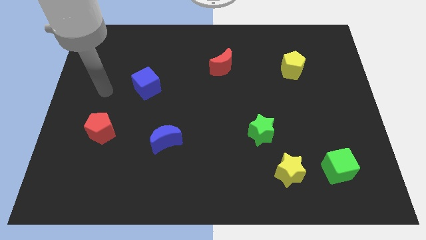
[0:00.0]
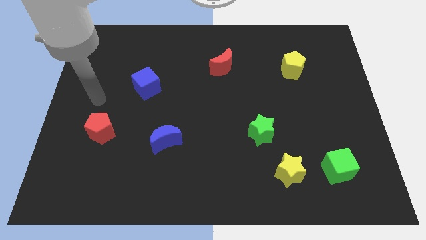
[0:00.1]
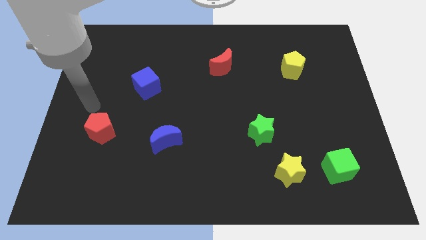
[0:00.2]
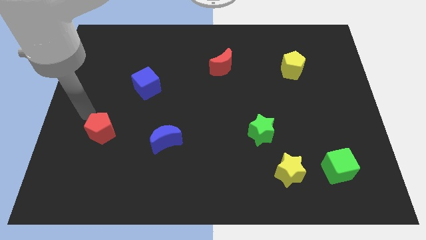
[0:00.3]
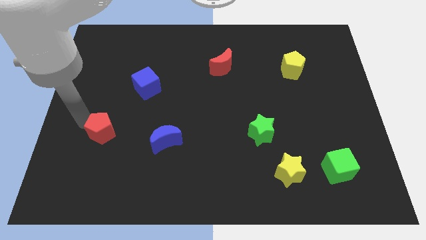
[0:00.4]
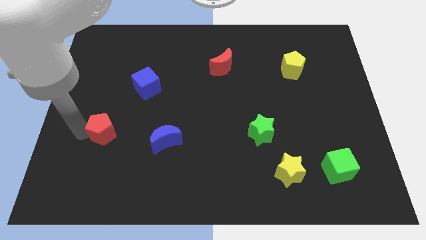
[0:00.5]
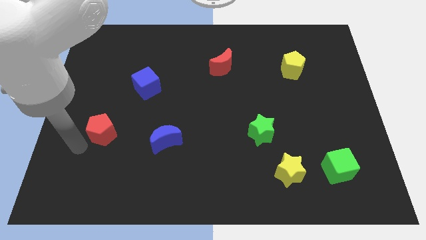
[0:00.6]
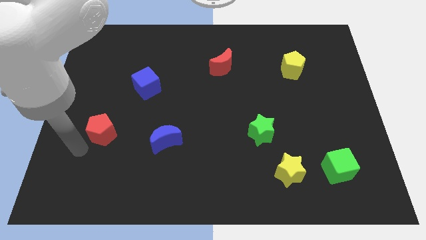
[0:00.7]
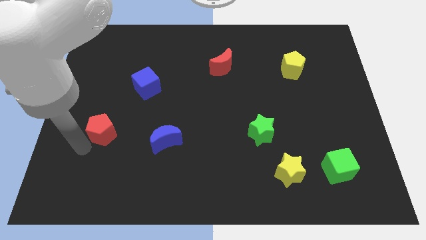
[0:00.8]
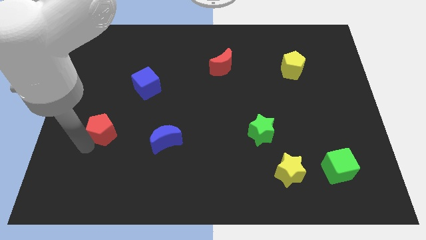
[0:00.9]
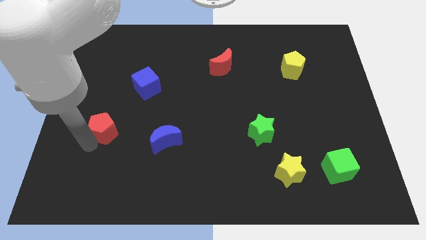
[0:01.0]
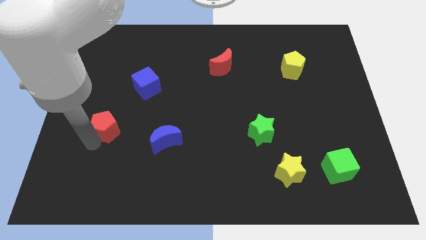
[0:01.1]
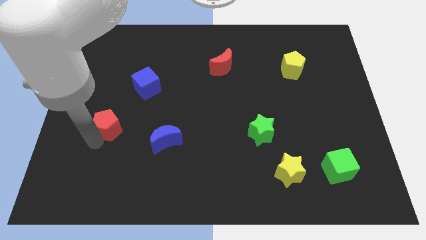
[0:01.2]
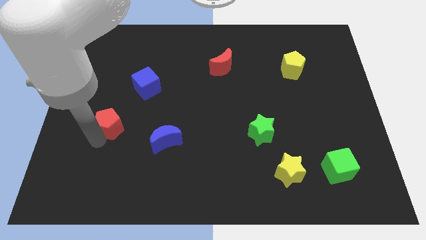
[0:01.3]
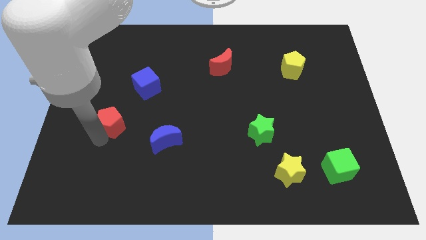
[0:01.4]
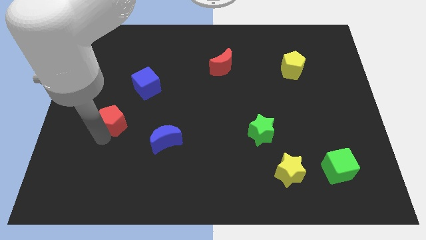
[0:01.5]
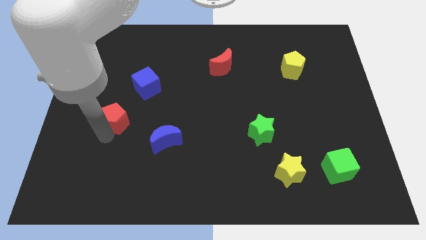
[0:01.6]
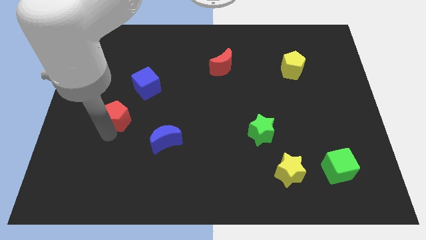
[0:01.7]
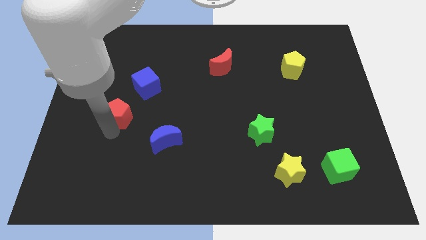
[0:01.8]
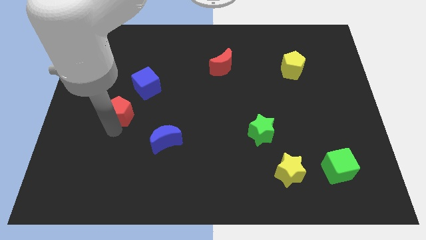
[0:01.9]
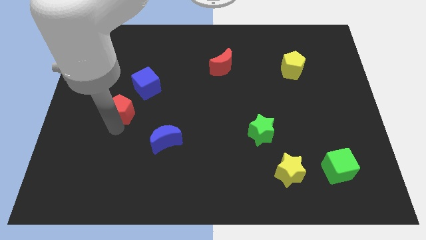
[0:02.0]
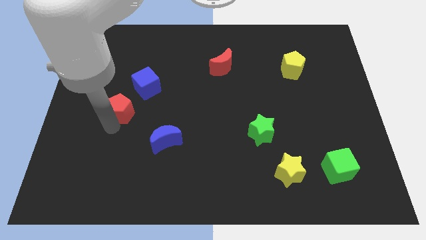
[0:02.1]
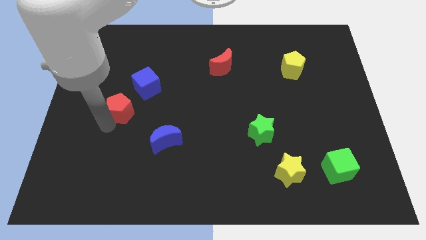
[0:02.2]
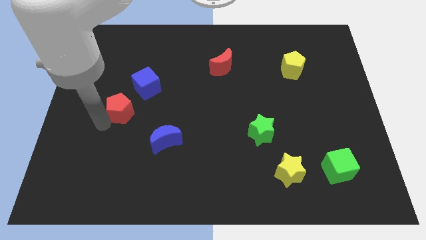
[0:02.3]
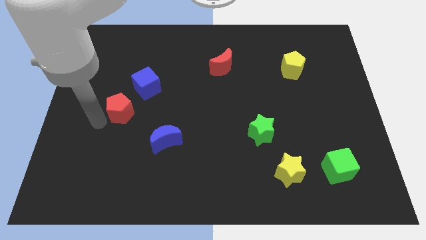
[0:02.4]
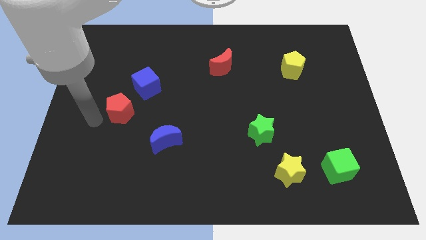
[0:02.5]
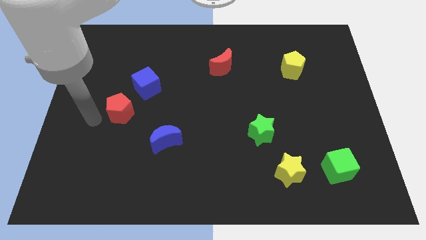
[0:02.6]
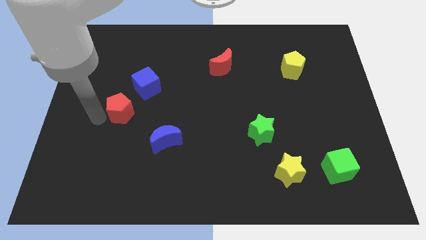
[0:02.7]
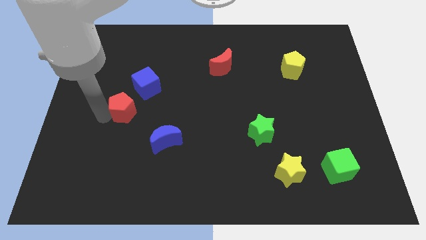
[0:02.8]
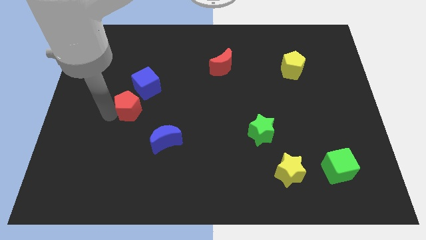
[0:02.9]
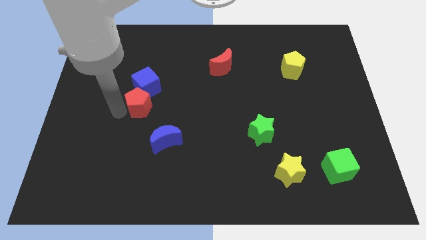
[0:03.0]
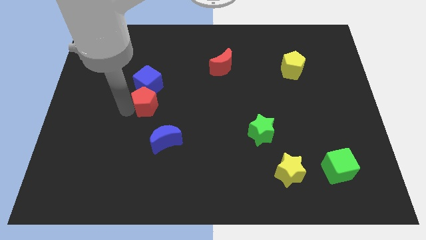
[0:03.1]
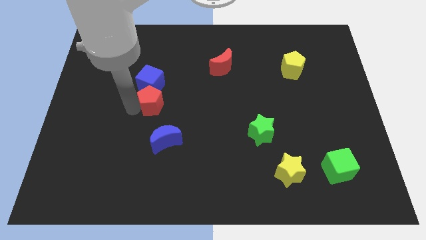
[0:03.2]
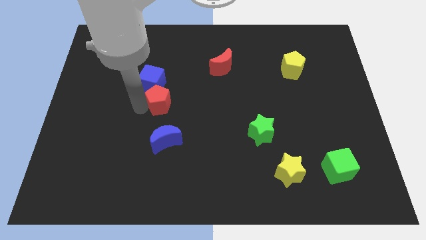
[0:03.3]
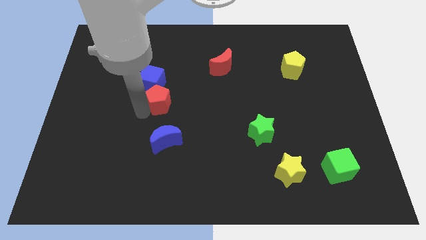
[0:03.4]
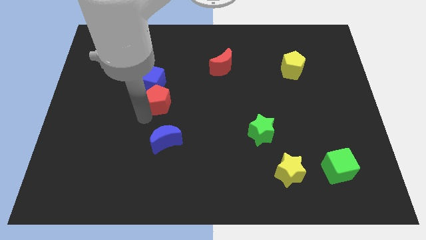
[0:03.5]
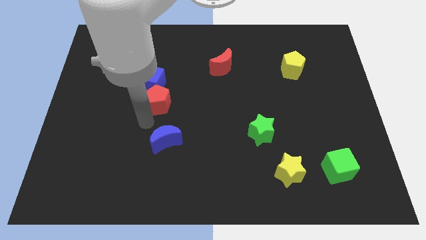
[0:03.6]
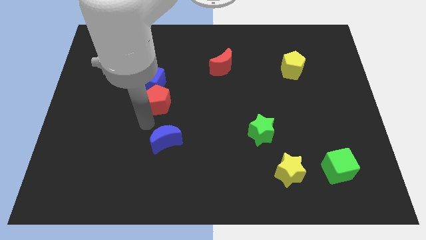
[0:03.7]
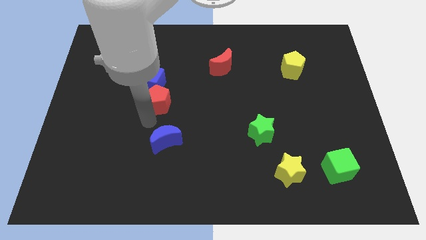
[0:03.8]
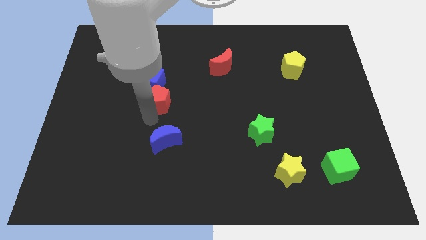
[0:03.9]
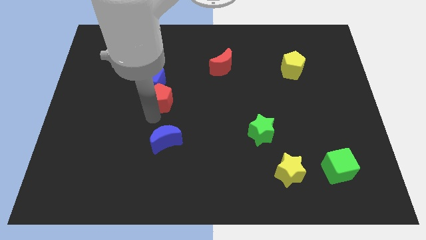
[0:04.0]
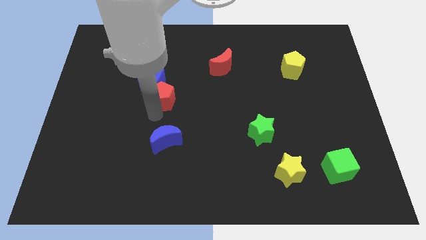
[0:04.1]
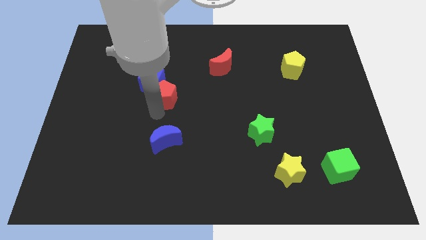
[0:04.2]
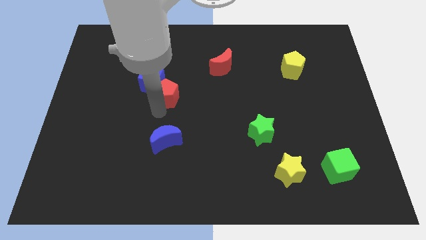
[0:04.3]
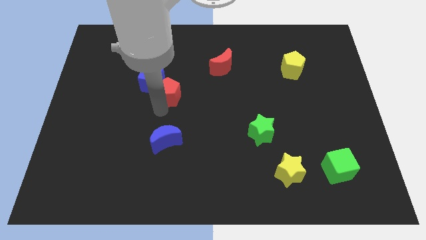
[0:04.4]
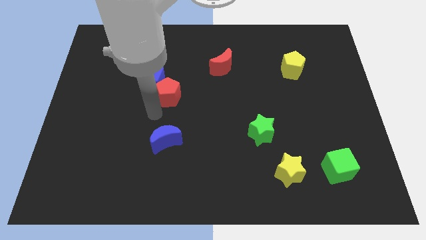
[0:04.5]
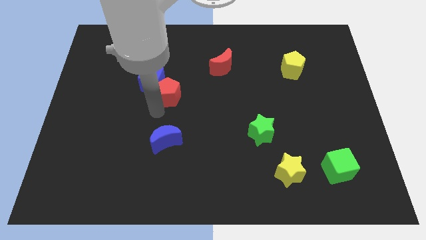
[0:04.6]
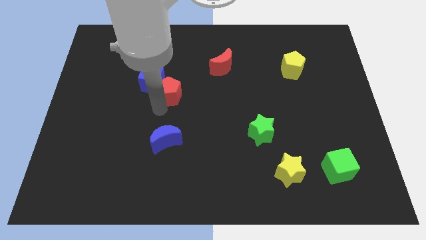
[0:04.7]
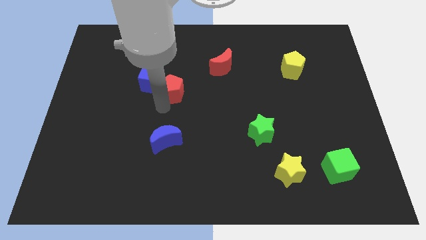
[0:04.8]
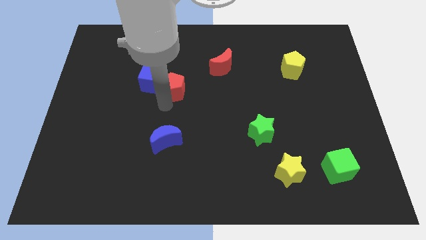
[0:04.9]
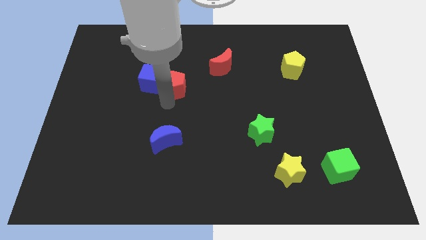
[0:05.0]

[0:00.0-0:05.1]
move the red pentagon upwards and then to the right

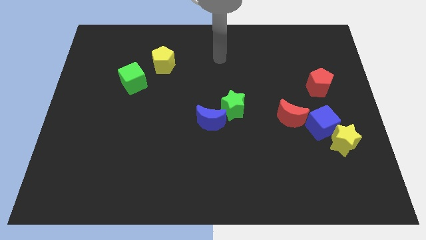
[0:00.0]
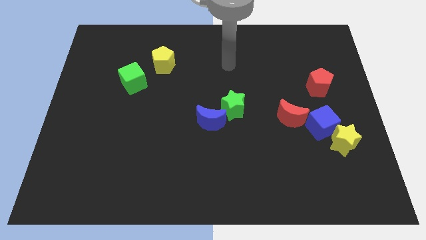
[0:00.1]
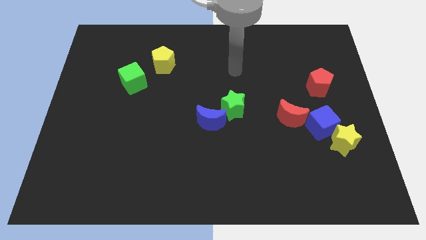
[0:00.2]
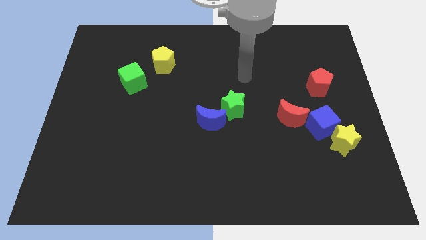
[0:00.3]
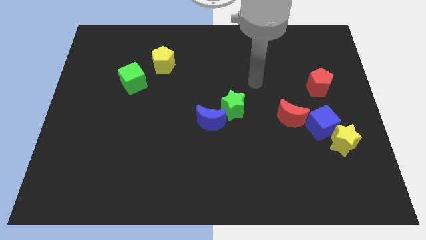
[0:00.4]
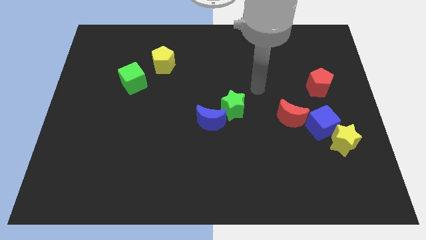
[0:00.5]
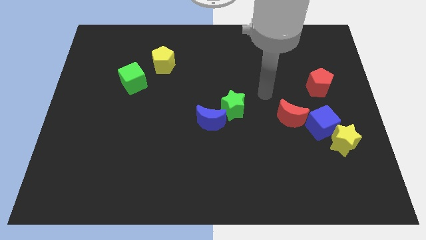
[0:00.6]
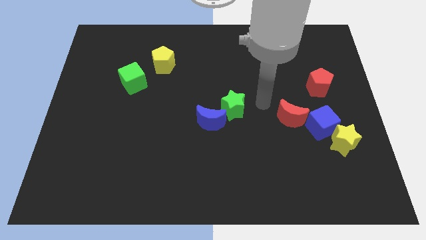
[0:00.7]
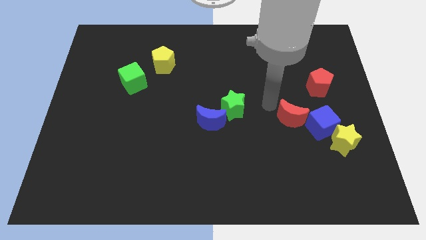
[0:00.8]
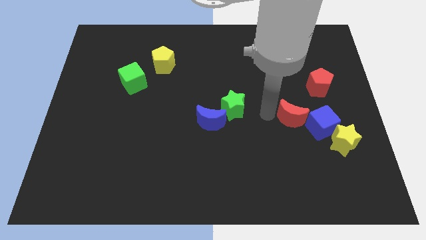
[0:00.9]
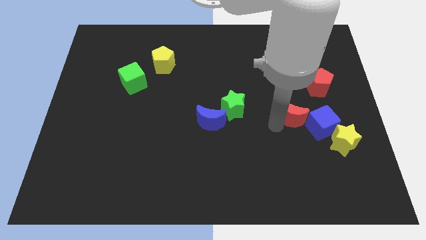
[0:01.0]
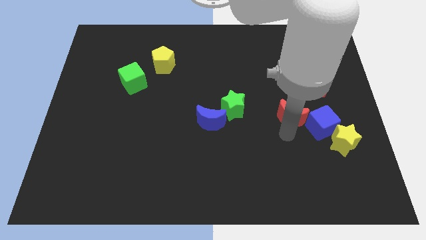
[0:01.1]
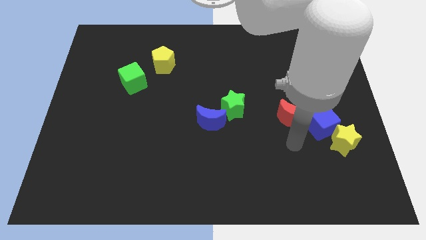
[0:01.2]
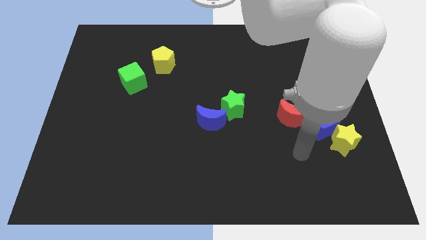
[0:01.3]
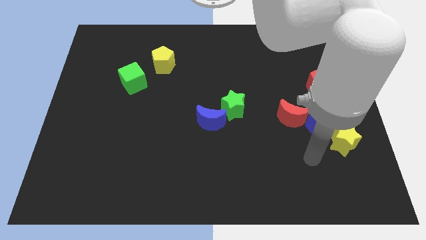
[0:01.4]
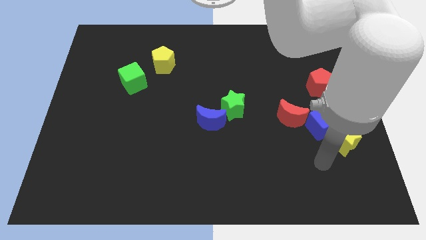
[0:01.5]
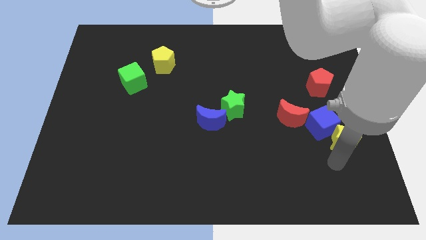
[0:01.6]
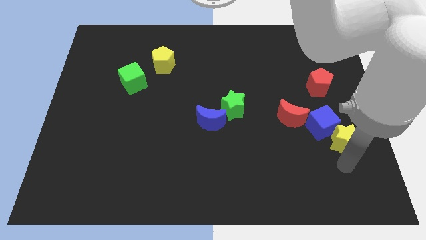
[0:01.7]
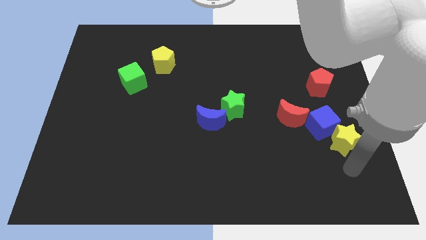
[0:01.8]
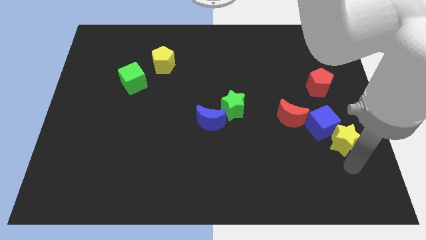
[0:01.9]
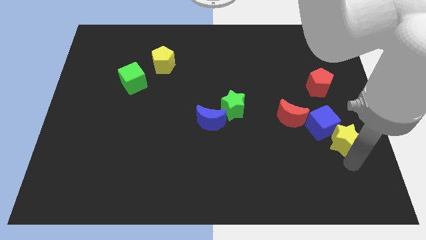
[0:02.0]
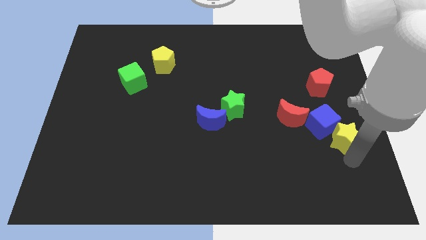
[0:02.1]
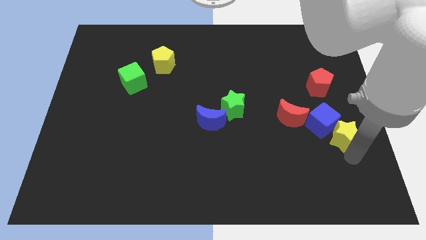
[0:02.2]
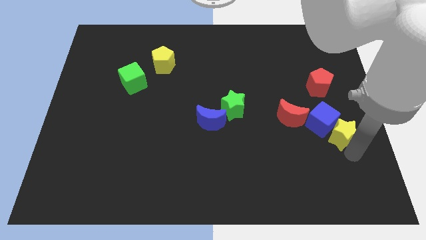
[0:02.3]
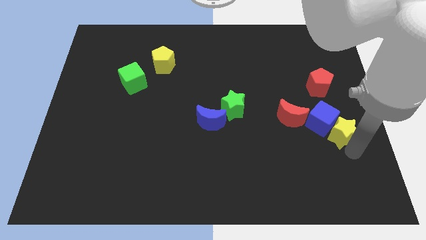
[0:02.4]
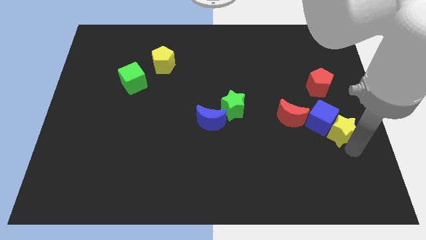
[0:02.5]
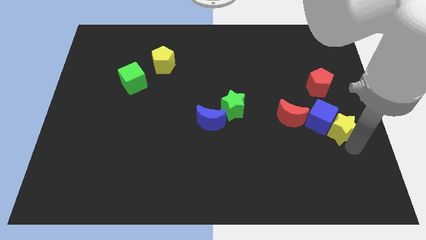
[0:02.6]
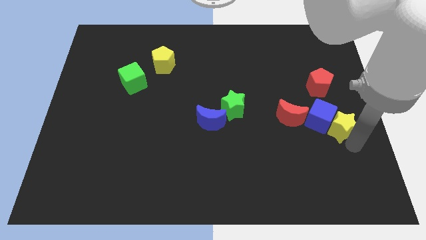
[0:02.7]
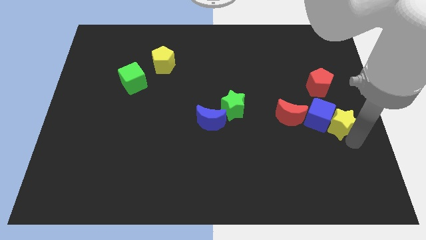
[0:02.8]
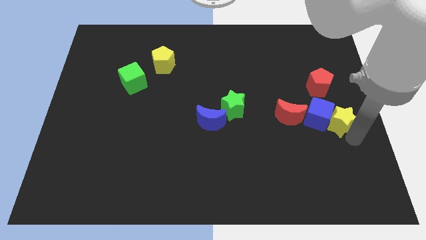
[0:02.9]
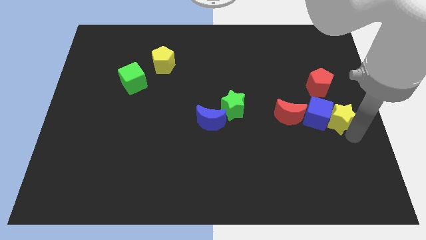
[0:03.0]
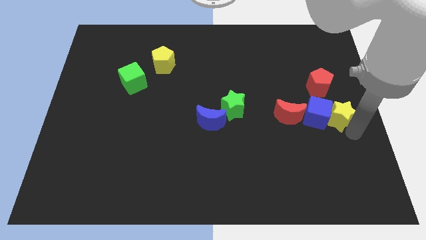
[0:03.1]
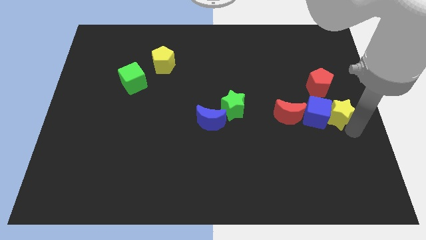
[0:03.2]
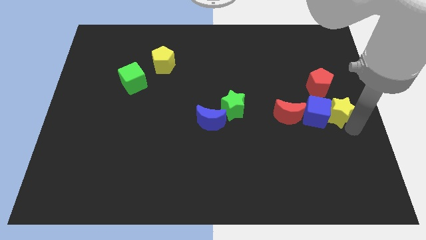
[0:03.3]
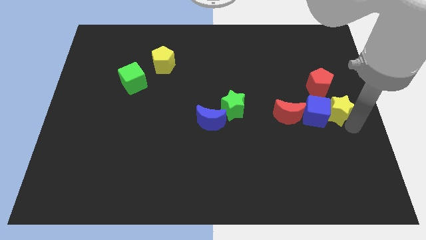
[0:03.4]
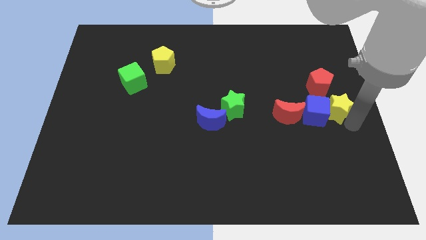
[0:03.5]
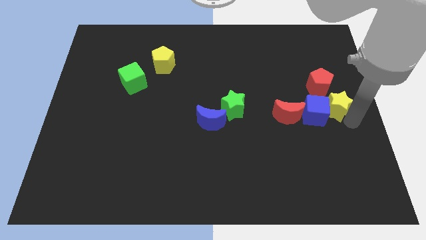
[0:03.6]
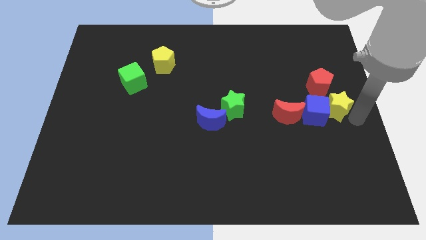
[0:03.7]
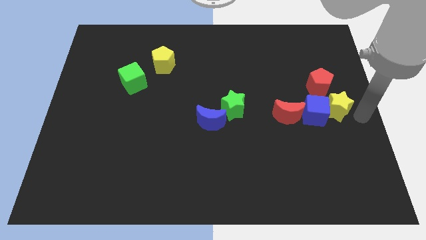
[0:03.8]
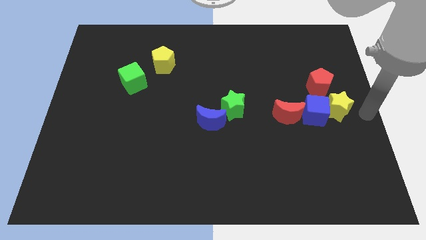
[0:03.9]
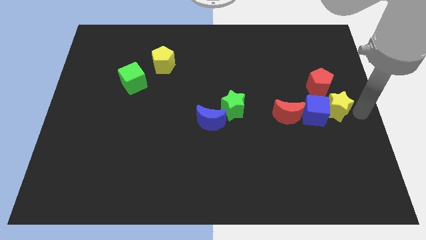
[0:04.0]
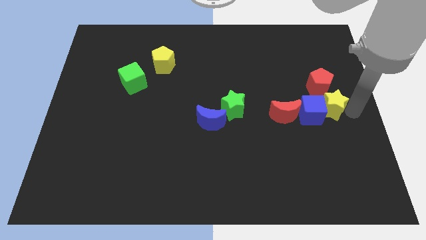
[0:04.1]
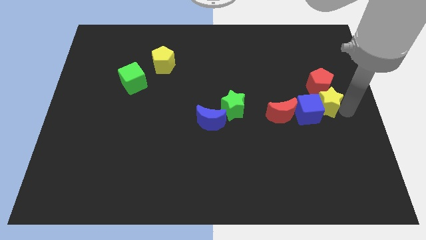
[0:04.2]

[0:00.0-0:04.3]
slightly slide the yellow star diagonally upwards and to the left
